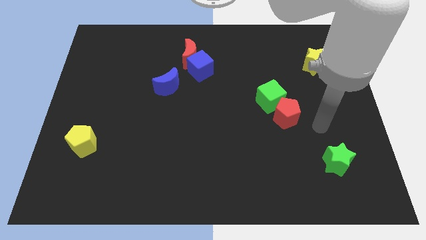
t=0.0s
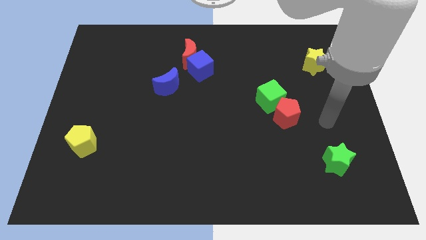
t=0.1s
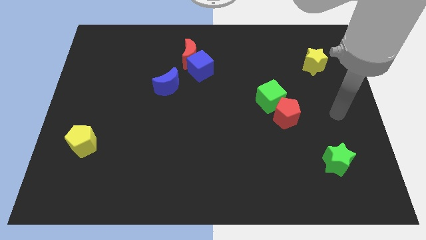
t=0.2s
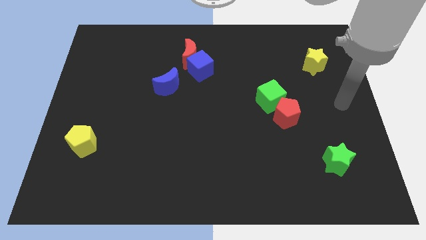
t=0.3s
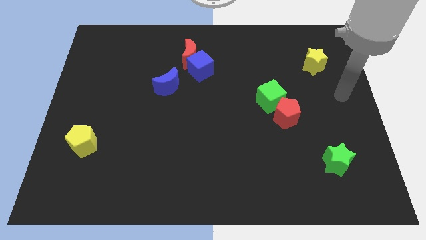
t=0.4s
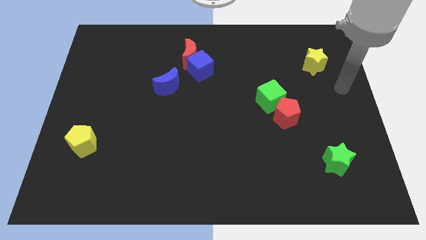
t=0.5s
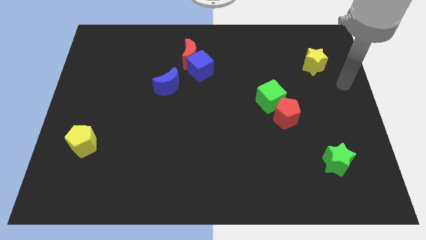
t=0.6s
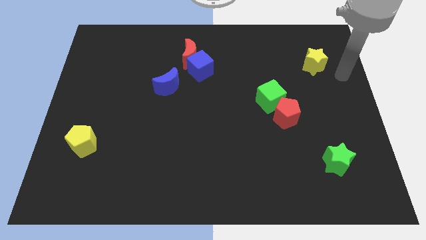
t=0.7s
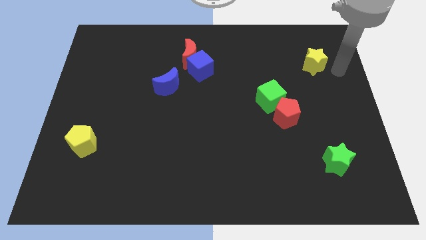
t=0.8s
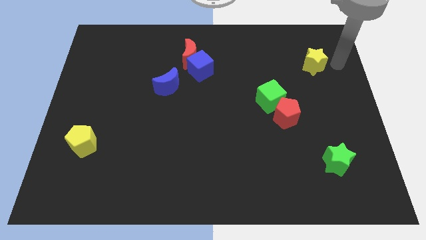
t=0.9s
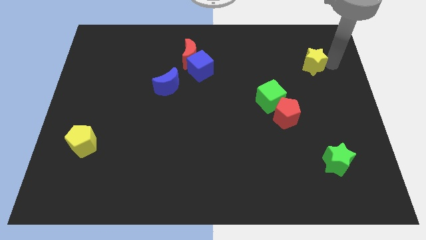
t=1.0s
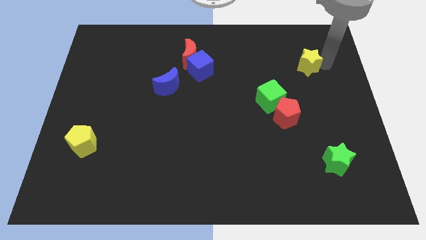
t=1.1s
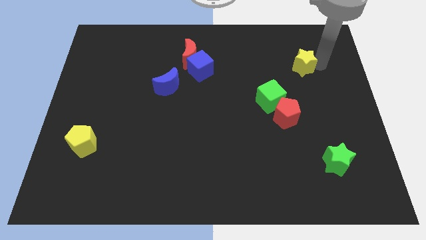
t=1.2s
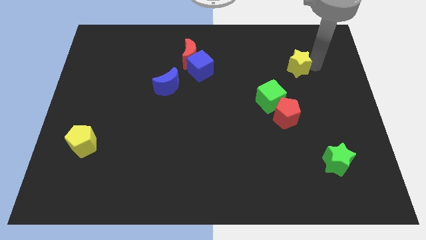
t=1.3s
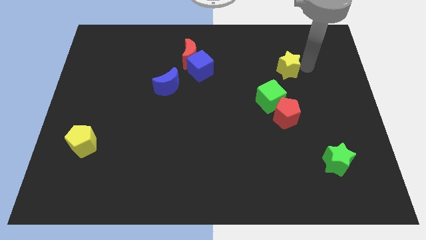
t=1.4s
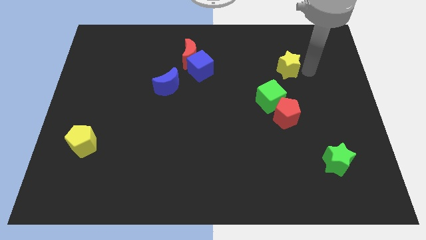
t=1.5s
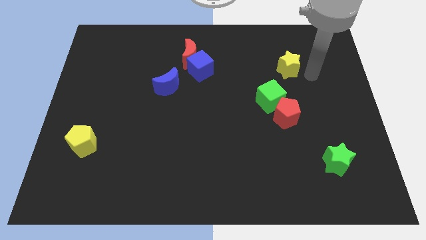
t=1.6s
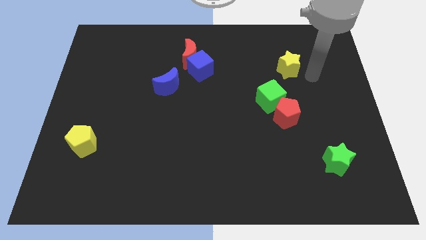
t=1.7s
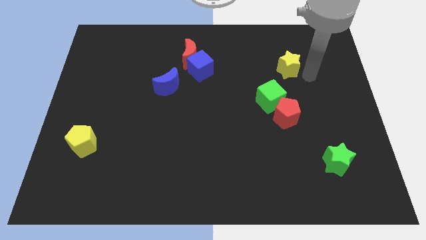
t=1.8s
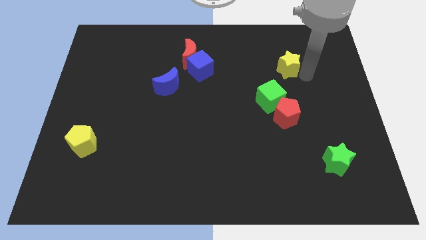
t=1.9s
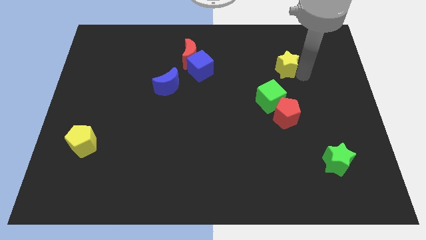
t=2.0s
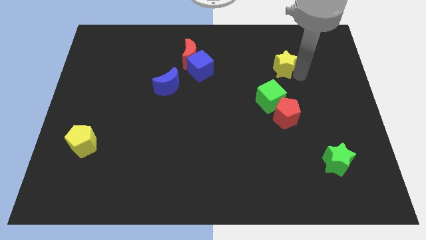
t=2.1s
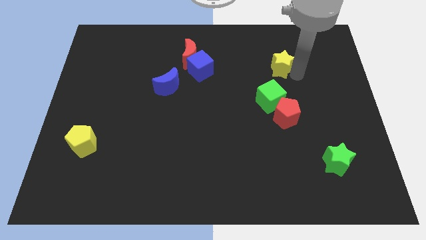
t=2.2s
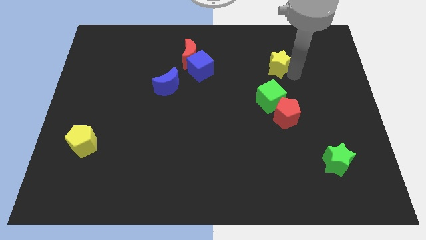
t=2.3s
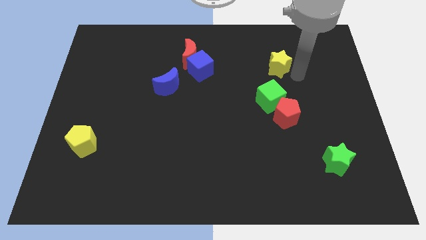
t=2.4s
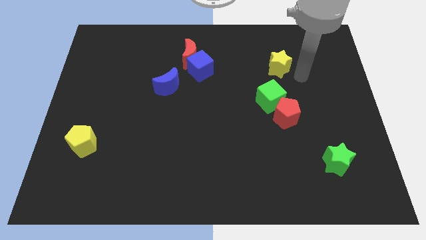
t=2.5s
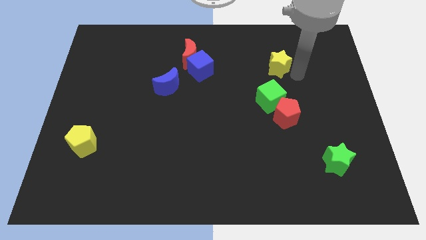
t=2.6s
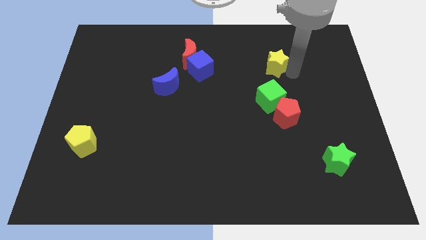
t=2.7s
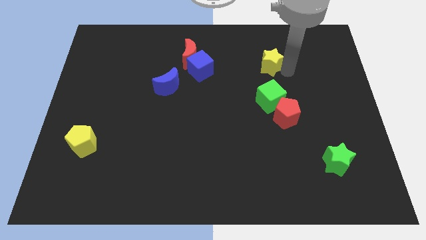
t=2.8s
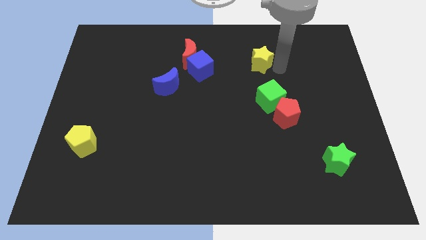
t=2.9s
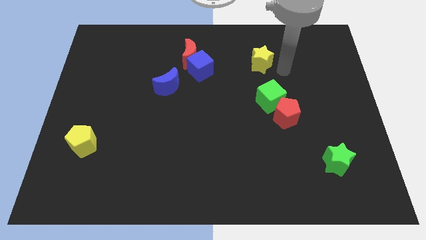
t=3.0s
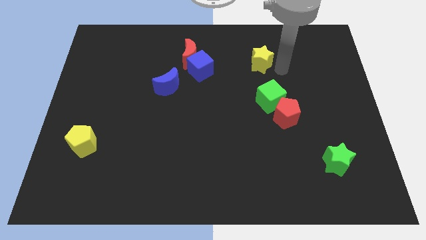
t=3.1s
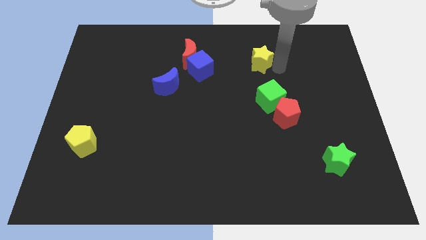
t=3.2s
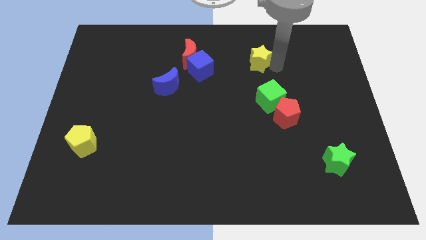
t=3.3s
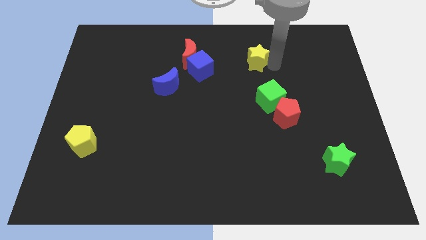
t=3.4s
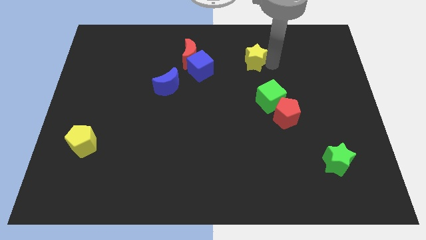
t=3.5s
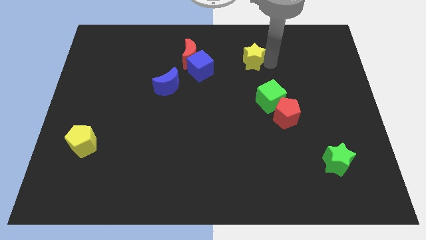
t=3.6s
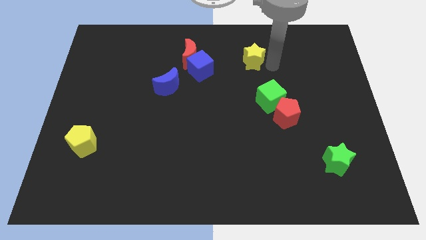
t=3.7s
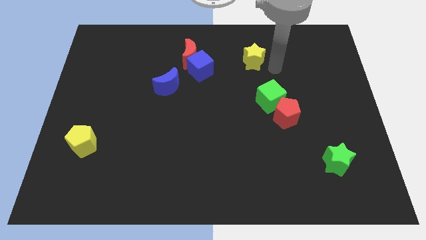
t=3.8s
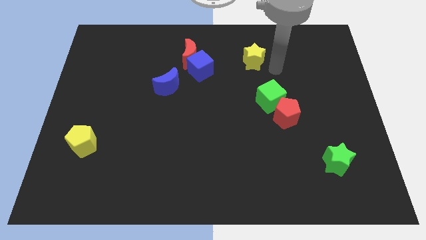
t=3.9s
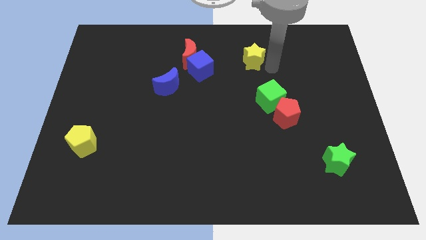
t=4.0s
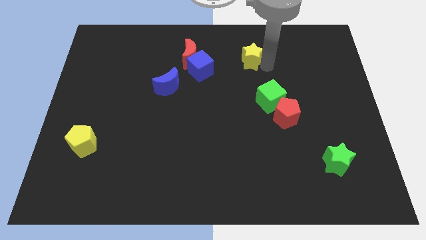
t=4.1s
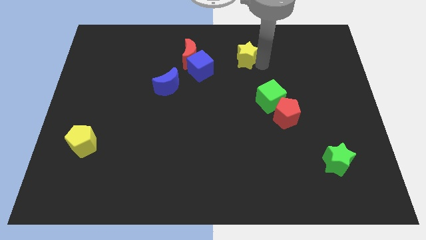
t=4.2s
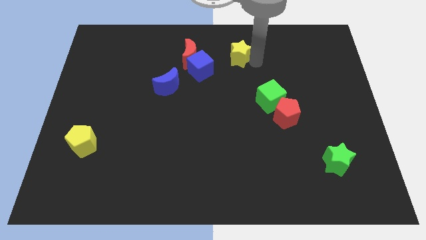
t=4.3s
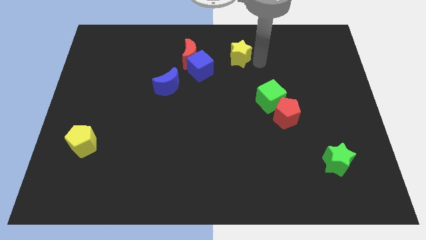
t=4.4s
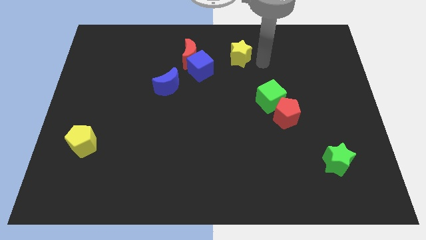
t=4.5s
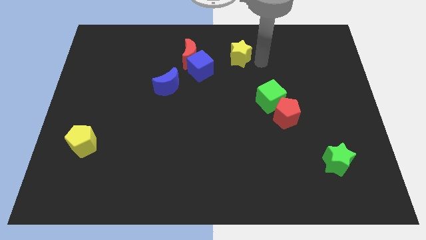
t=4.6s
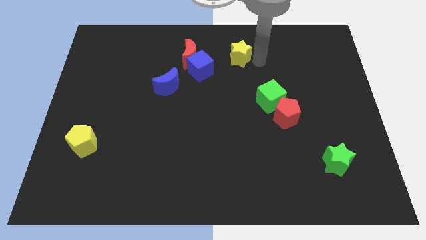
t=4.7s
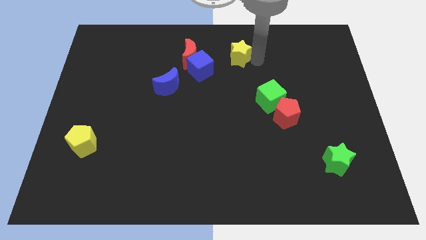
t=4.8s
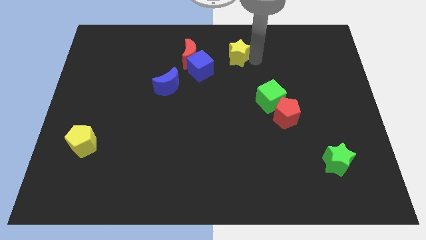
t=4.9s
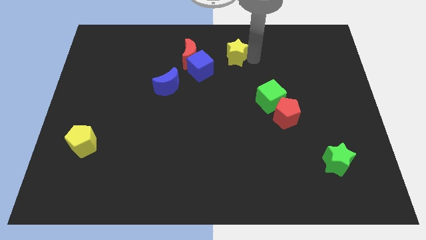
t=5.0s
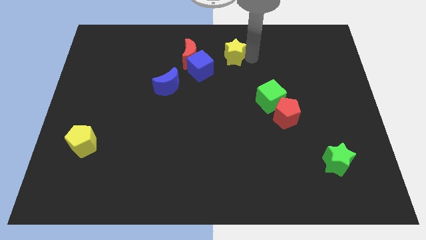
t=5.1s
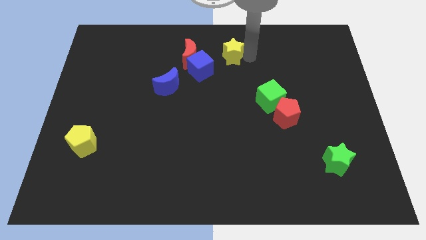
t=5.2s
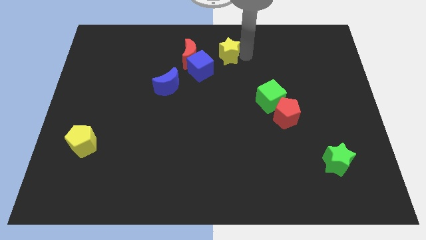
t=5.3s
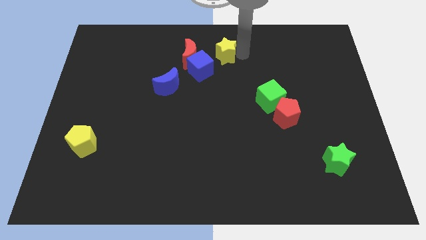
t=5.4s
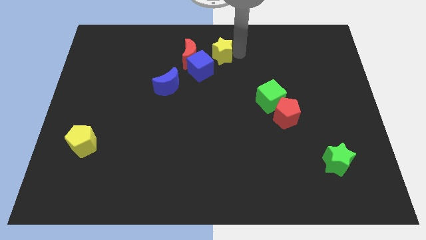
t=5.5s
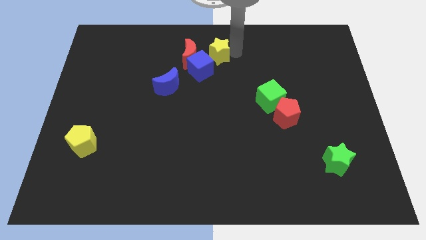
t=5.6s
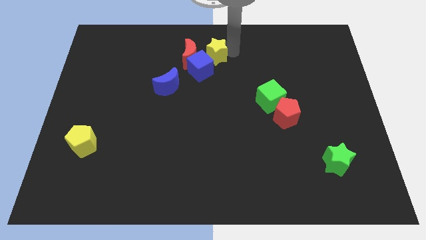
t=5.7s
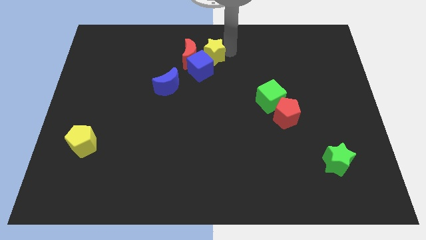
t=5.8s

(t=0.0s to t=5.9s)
move the yellow star towards the red moon

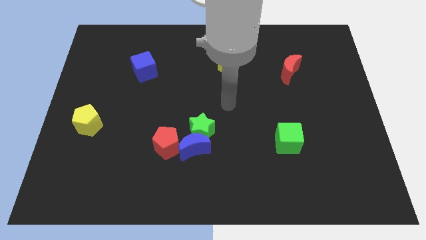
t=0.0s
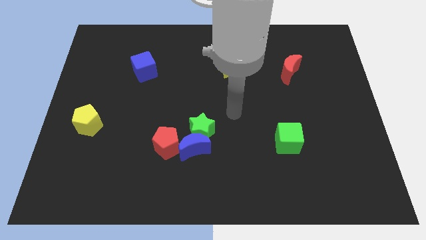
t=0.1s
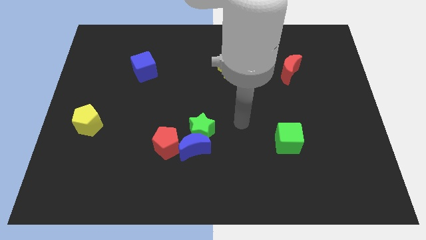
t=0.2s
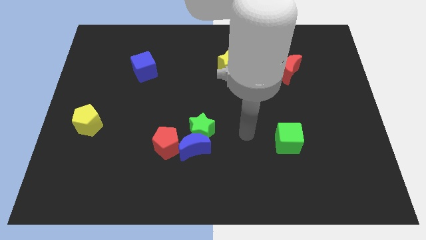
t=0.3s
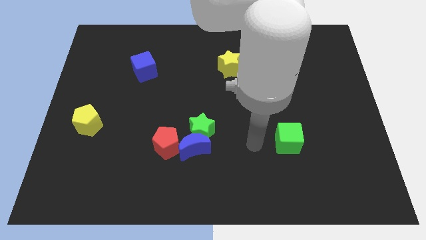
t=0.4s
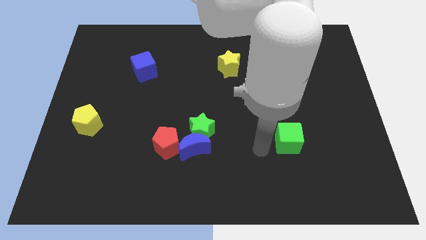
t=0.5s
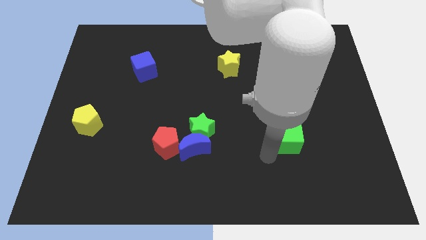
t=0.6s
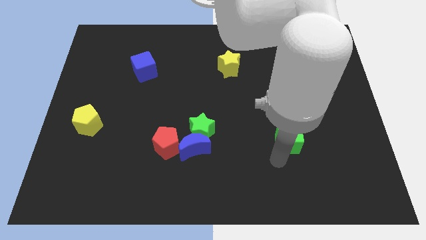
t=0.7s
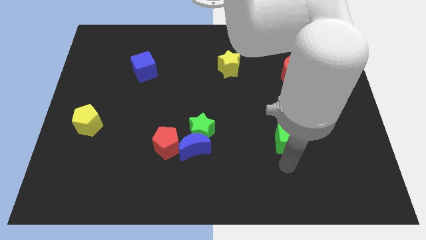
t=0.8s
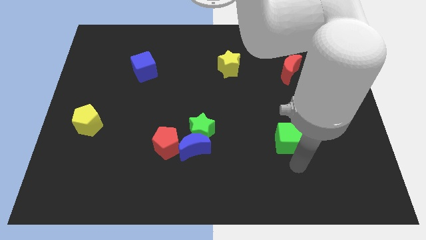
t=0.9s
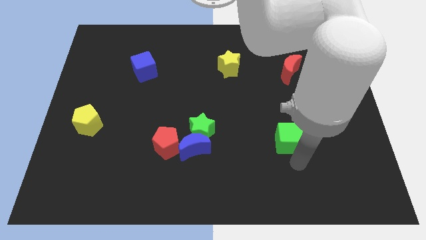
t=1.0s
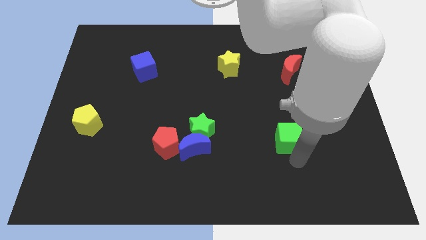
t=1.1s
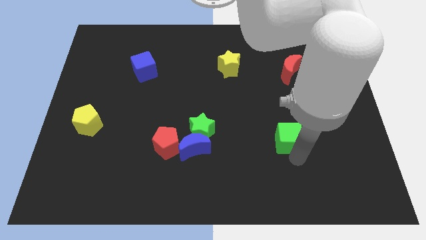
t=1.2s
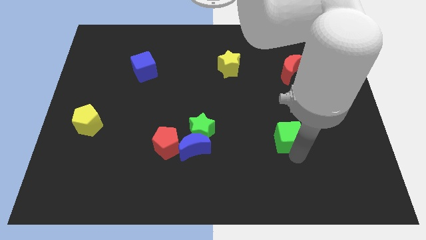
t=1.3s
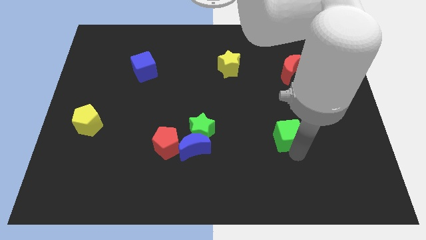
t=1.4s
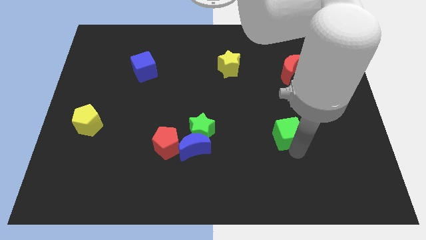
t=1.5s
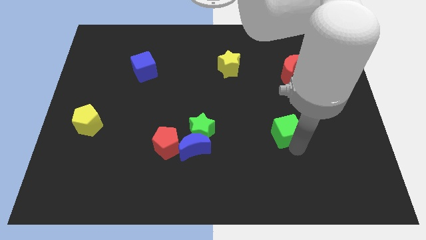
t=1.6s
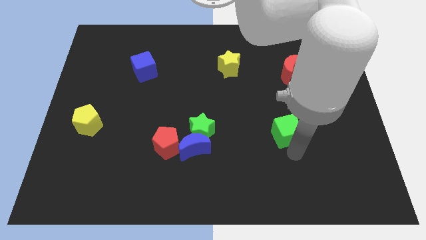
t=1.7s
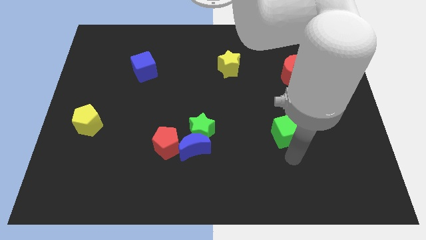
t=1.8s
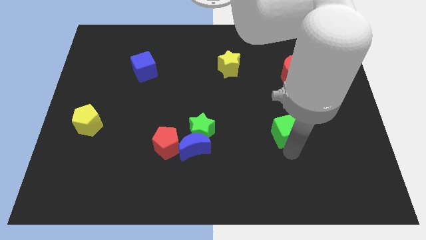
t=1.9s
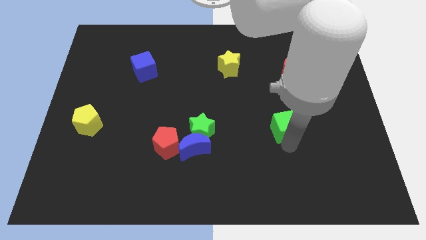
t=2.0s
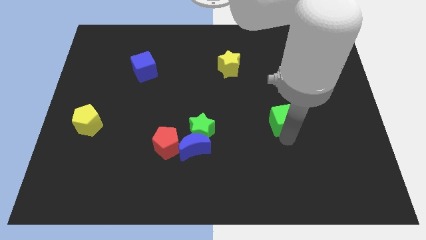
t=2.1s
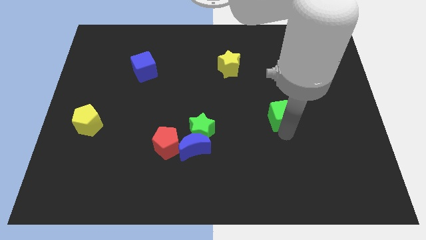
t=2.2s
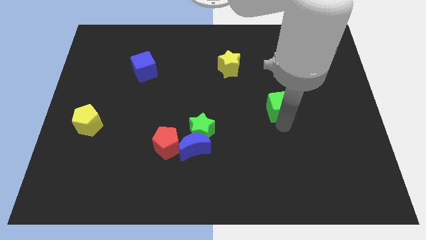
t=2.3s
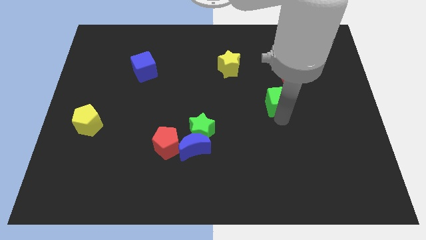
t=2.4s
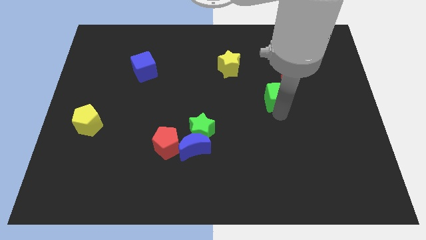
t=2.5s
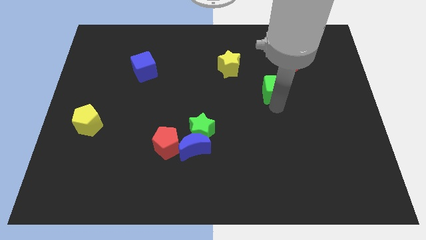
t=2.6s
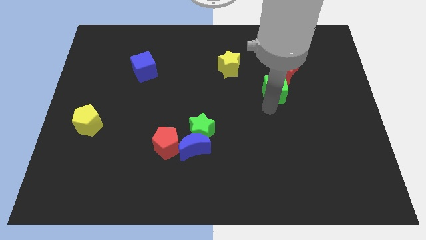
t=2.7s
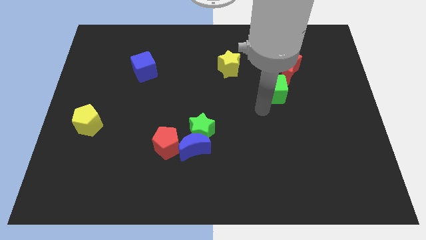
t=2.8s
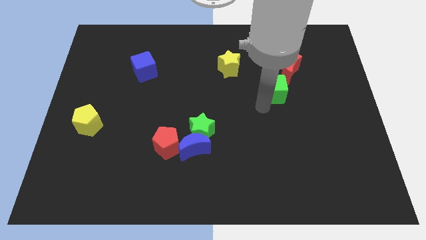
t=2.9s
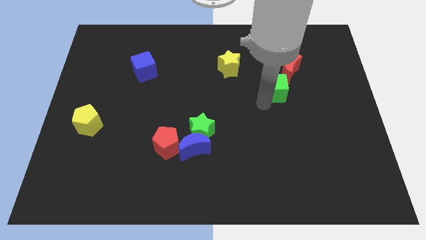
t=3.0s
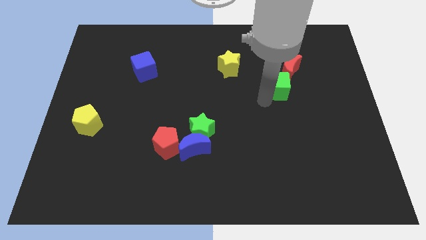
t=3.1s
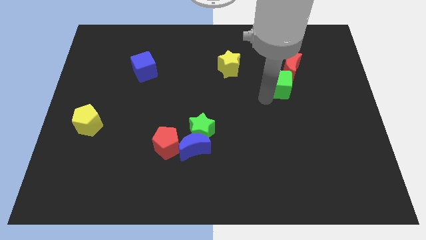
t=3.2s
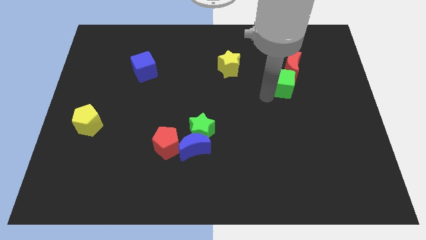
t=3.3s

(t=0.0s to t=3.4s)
move the green cube close to the red moon
